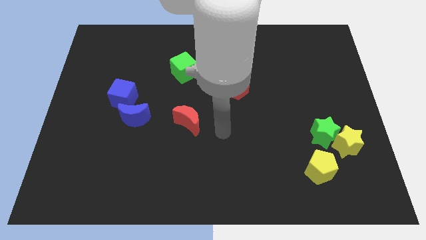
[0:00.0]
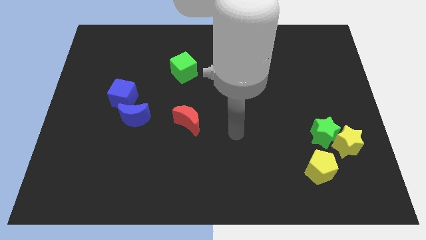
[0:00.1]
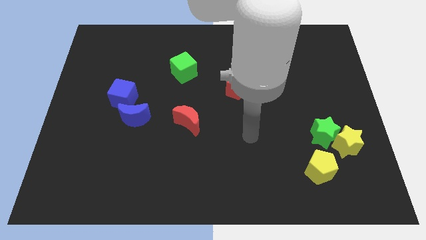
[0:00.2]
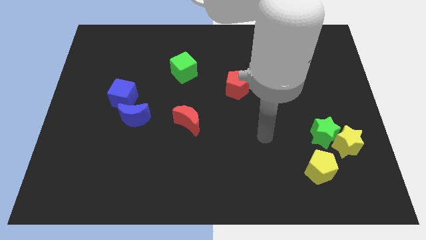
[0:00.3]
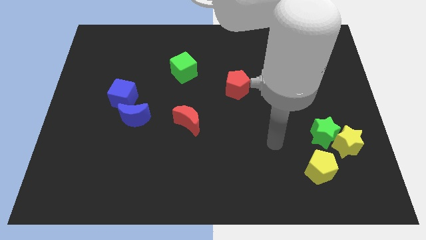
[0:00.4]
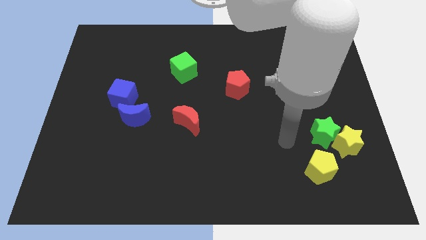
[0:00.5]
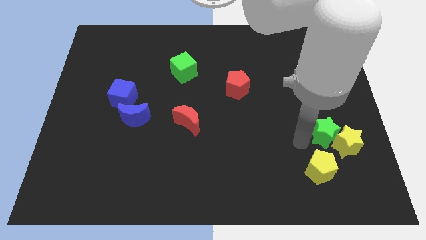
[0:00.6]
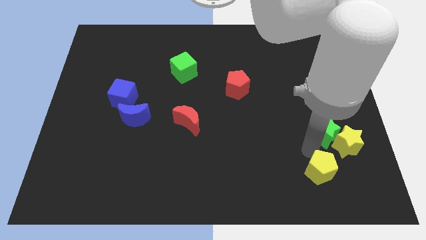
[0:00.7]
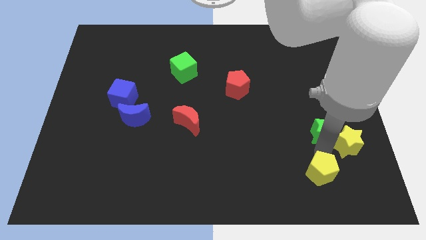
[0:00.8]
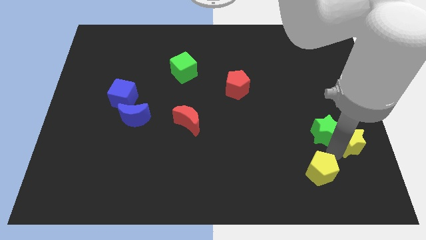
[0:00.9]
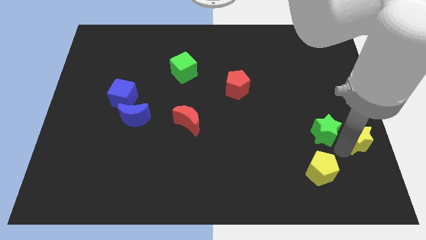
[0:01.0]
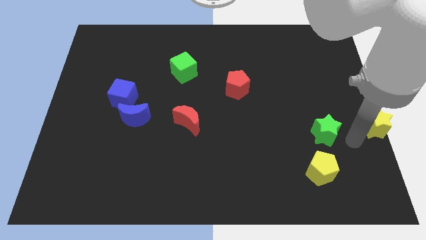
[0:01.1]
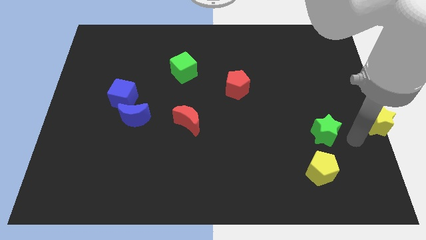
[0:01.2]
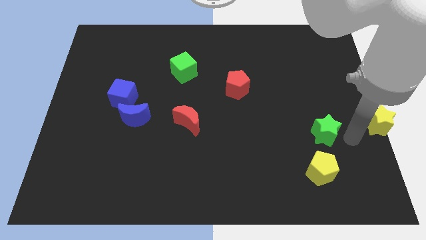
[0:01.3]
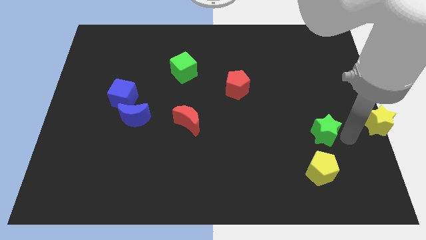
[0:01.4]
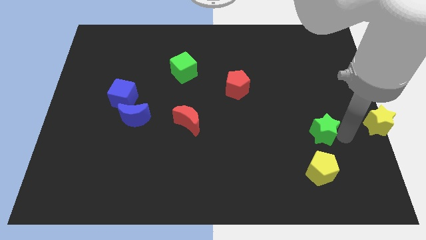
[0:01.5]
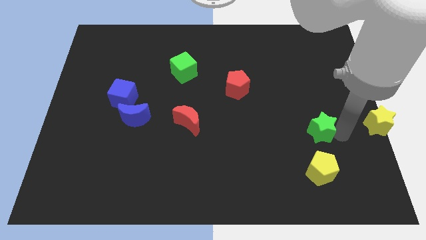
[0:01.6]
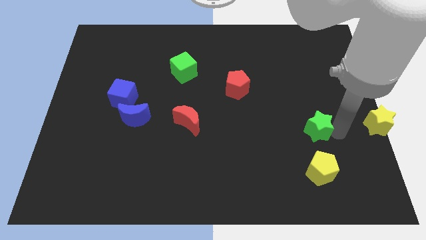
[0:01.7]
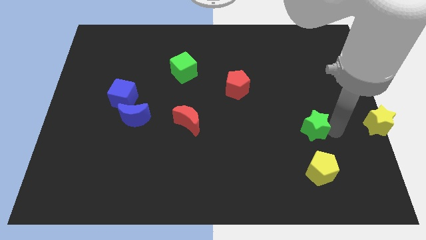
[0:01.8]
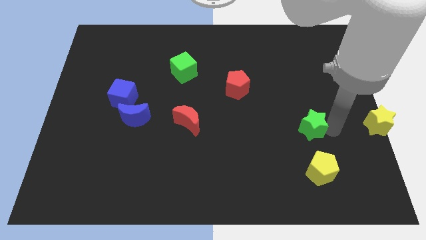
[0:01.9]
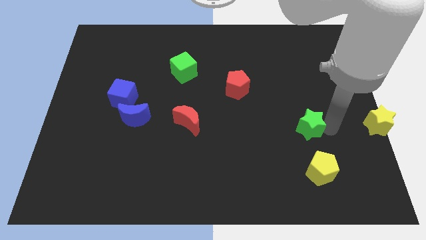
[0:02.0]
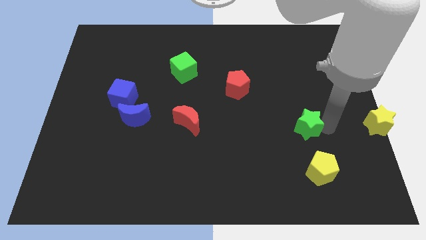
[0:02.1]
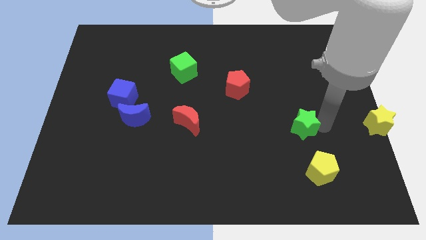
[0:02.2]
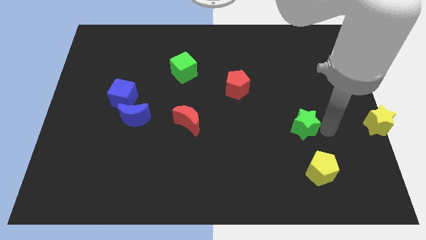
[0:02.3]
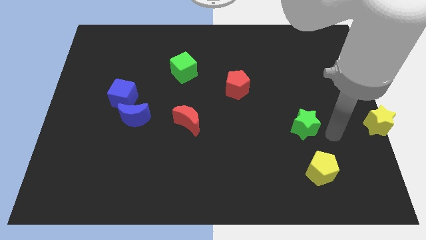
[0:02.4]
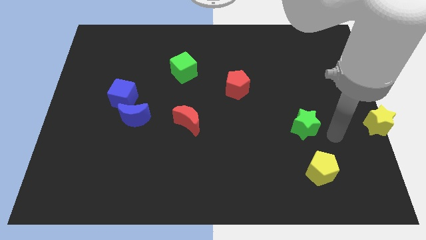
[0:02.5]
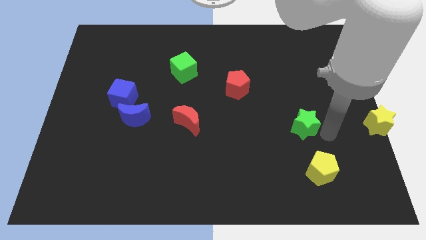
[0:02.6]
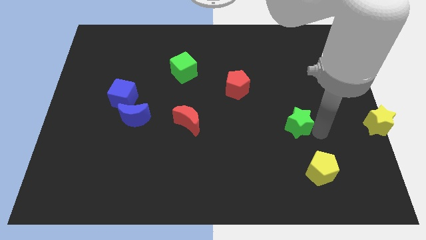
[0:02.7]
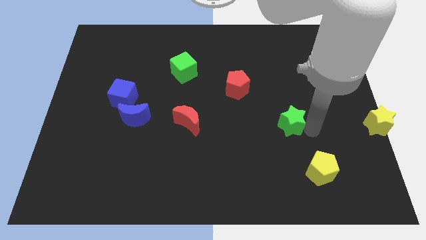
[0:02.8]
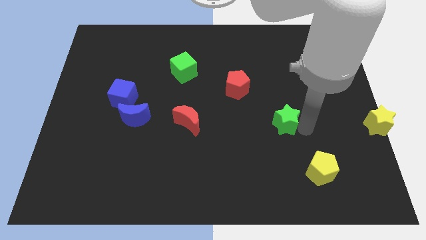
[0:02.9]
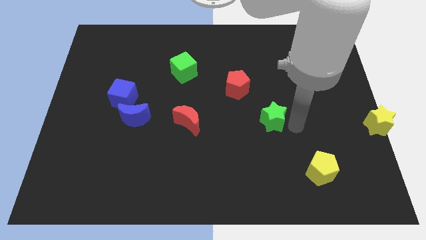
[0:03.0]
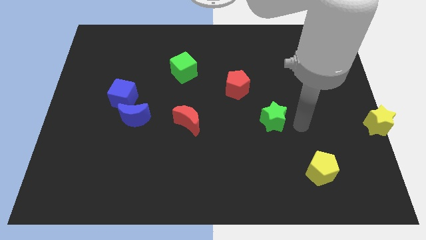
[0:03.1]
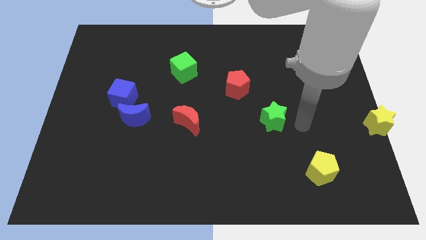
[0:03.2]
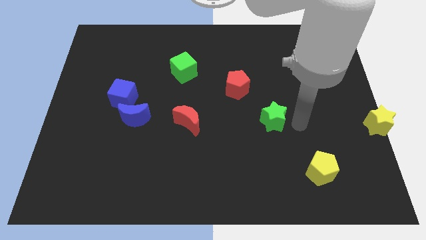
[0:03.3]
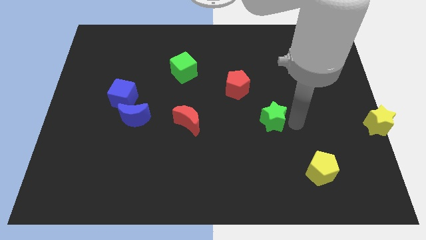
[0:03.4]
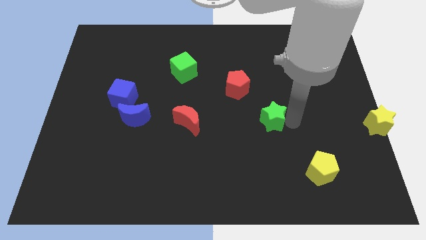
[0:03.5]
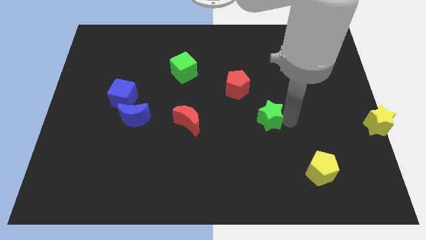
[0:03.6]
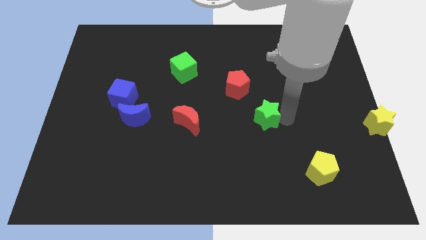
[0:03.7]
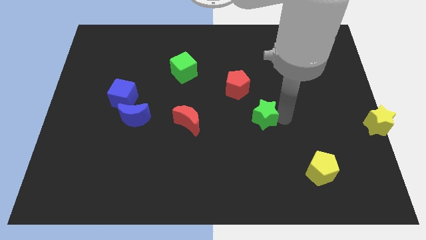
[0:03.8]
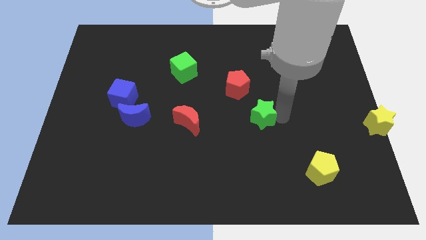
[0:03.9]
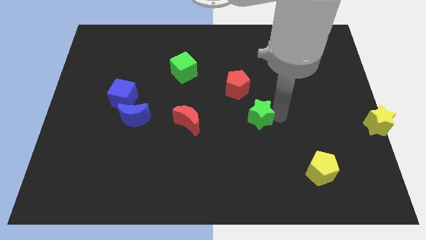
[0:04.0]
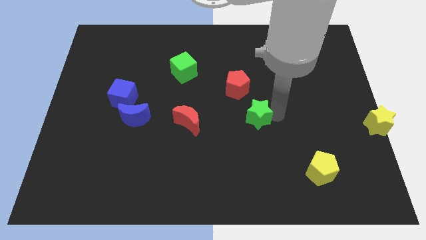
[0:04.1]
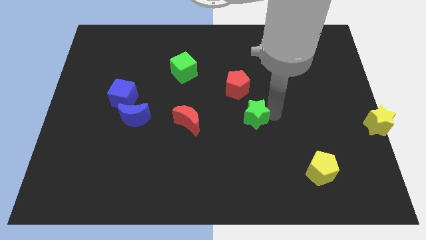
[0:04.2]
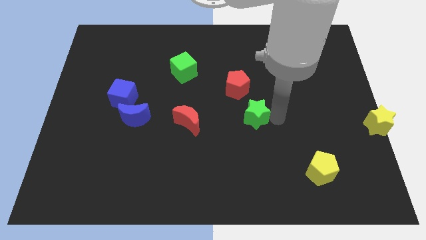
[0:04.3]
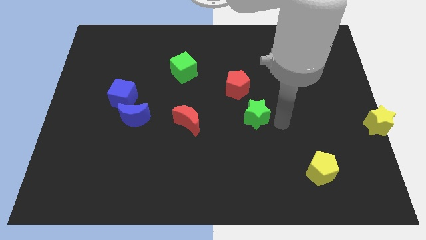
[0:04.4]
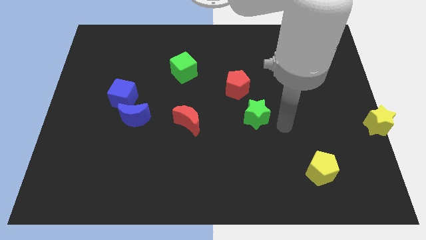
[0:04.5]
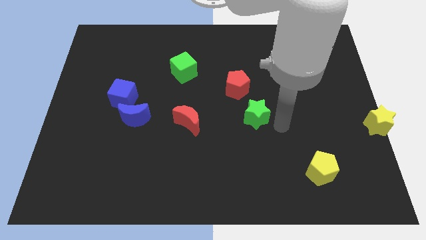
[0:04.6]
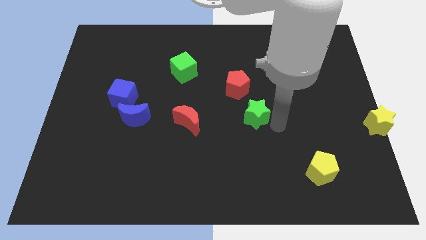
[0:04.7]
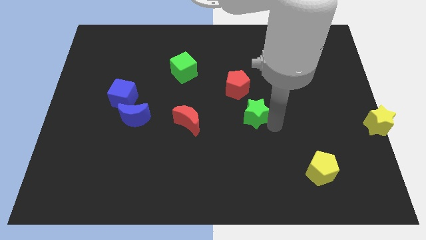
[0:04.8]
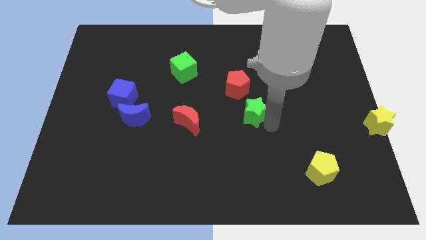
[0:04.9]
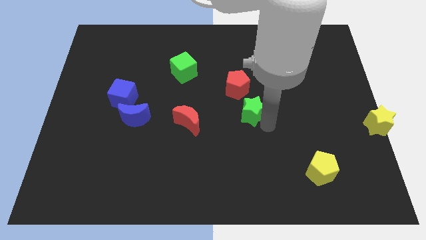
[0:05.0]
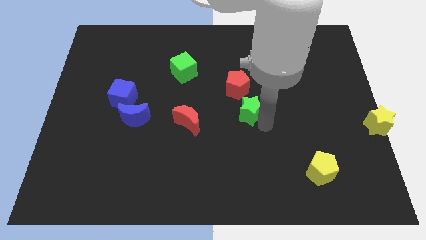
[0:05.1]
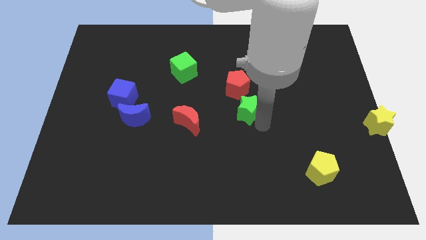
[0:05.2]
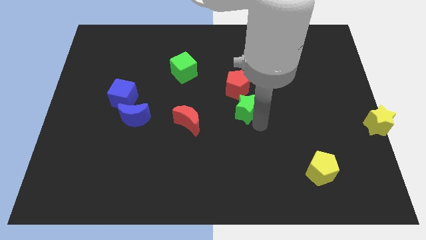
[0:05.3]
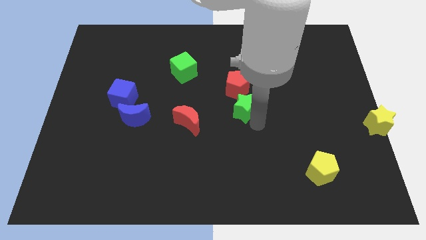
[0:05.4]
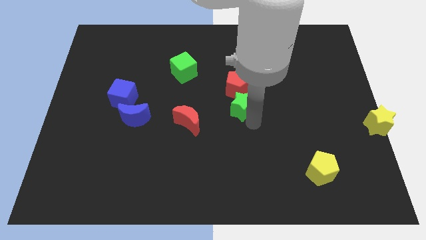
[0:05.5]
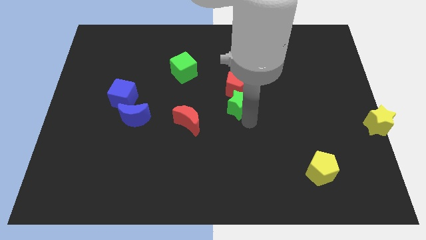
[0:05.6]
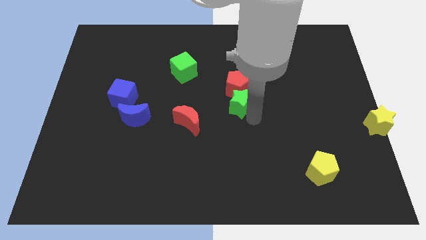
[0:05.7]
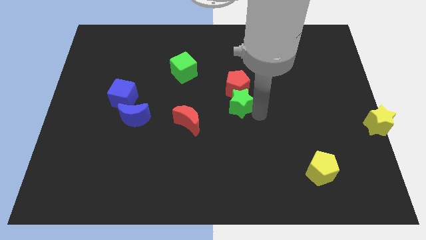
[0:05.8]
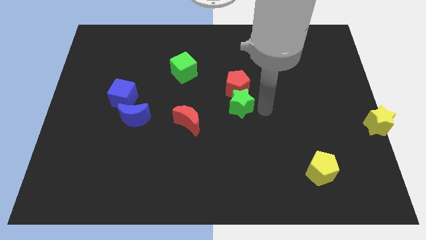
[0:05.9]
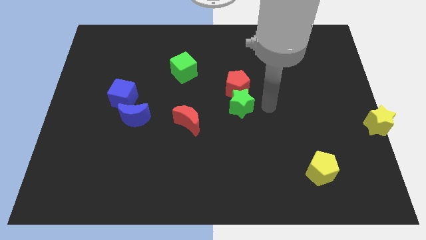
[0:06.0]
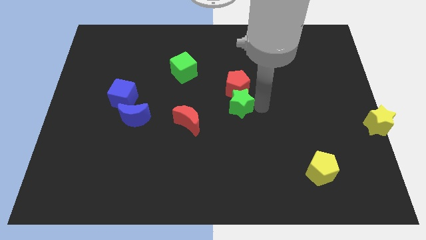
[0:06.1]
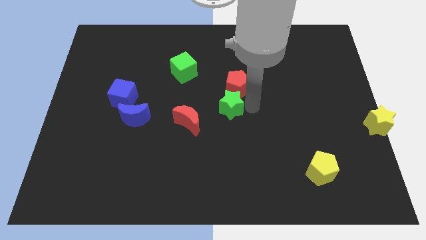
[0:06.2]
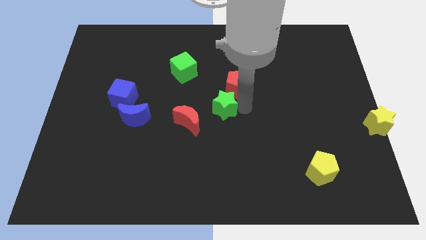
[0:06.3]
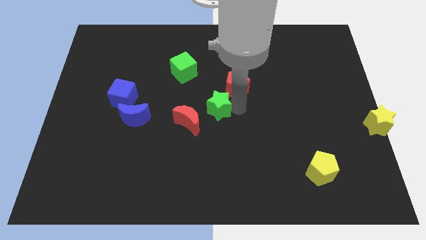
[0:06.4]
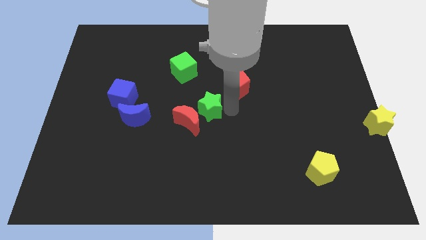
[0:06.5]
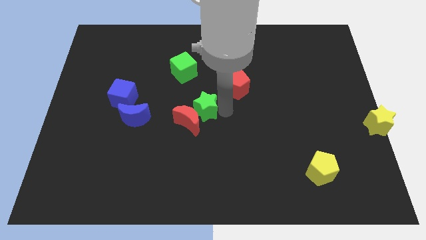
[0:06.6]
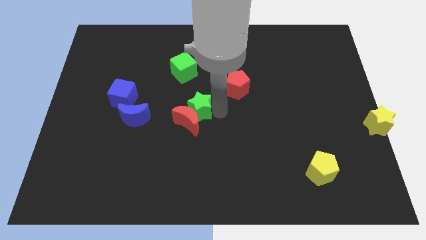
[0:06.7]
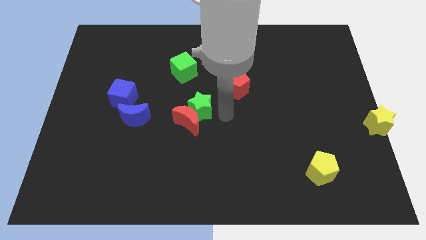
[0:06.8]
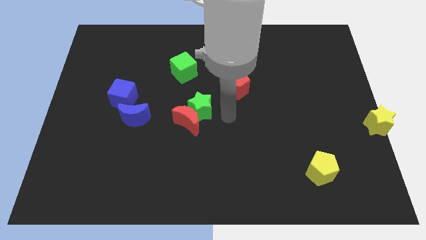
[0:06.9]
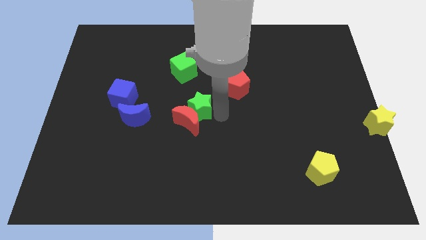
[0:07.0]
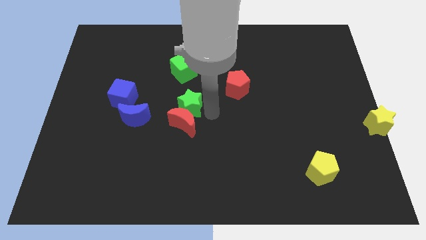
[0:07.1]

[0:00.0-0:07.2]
move the green star to the top left of the red moon

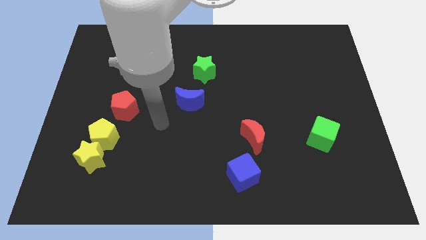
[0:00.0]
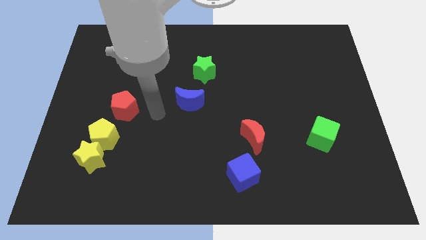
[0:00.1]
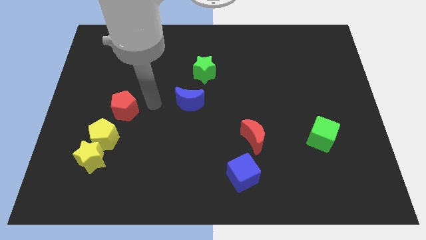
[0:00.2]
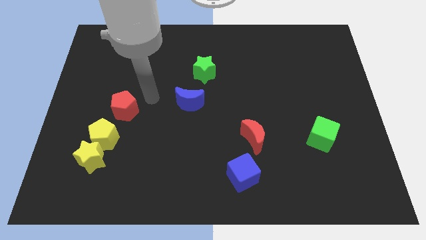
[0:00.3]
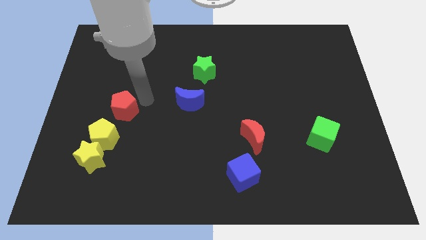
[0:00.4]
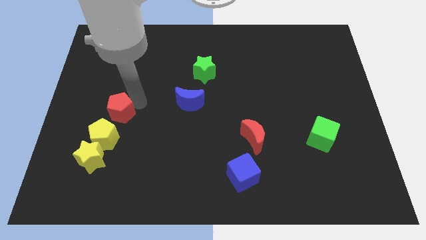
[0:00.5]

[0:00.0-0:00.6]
slide the red pentagon to the top side of the yellow star
